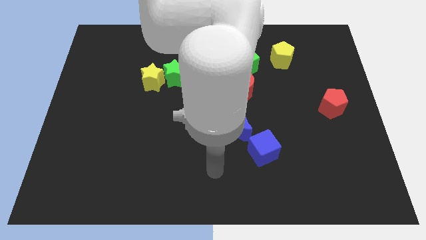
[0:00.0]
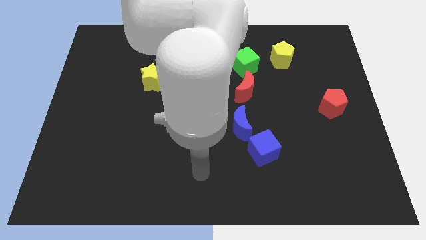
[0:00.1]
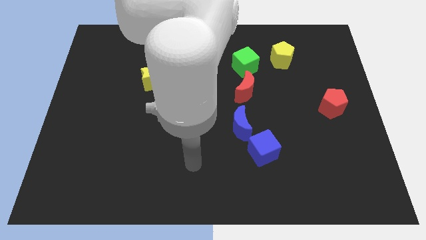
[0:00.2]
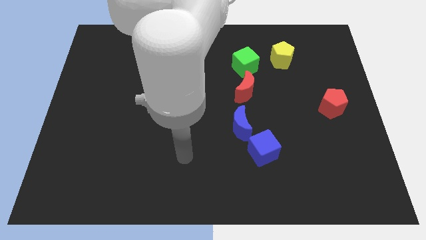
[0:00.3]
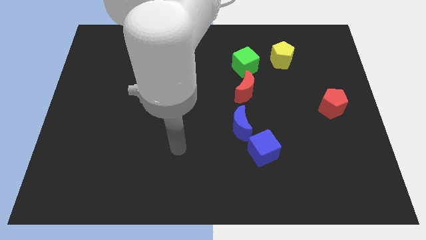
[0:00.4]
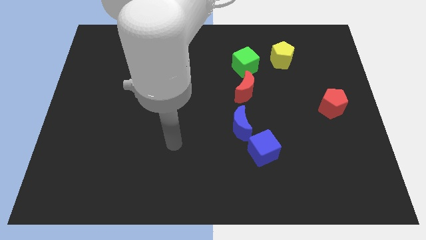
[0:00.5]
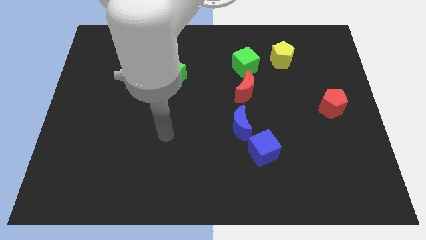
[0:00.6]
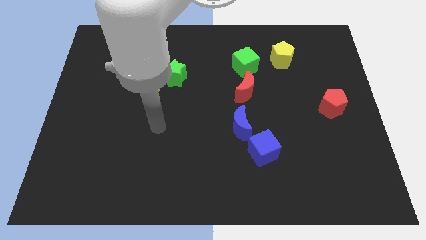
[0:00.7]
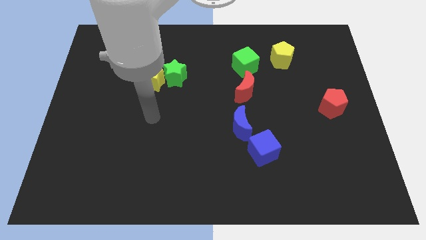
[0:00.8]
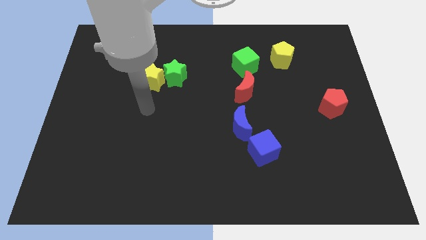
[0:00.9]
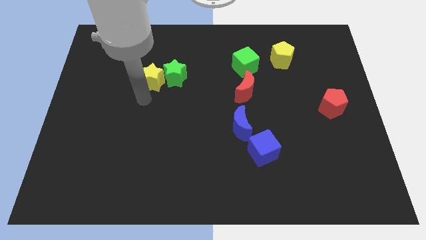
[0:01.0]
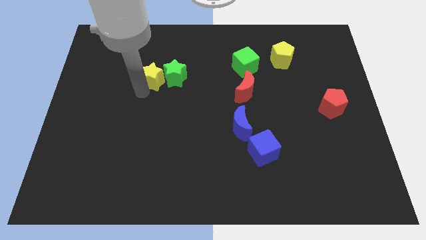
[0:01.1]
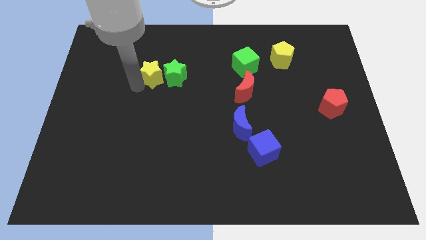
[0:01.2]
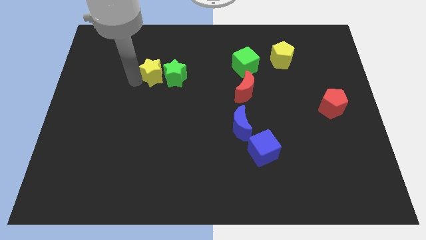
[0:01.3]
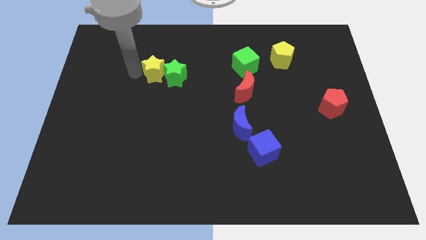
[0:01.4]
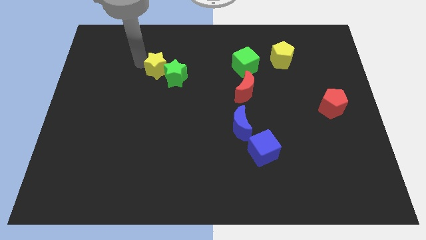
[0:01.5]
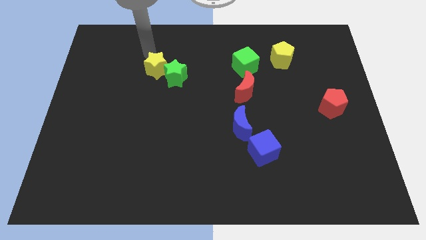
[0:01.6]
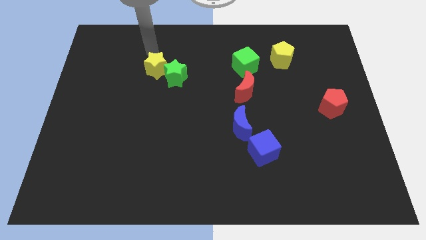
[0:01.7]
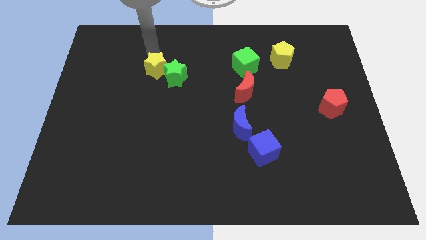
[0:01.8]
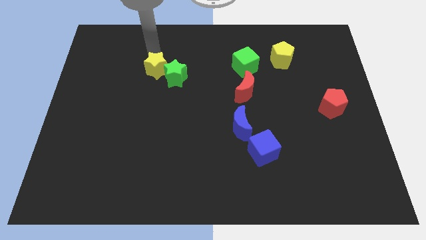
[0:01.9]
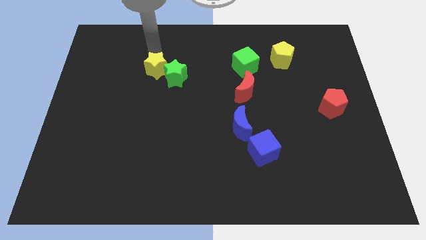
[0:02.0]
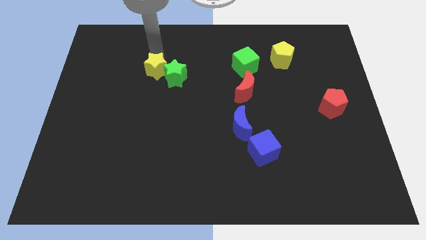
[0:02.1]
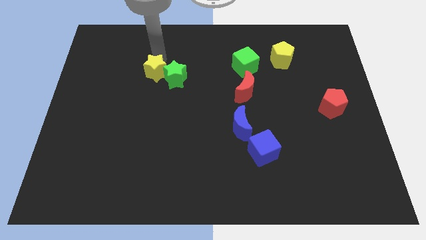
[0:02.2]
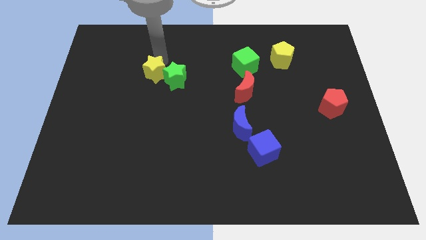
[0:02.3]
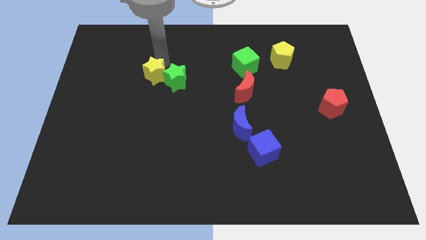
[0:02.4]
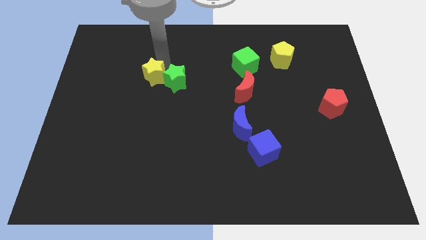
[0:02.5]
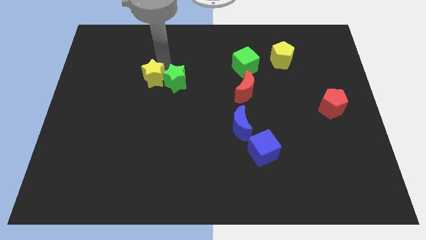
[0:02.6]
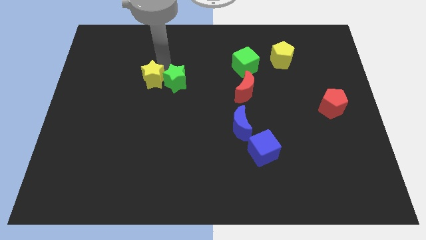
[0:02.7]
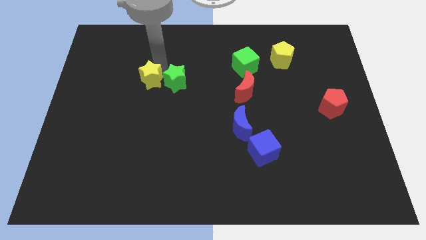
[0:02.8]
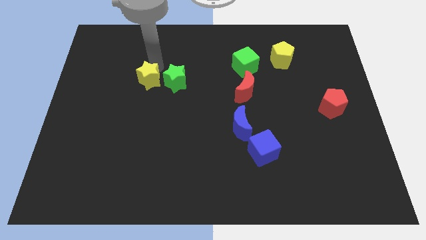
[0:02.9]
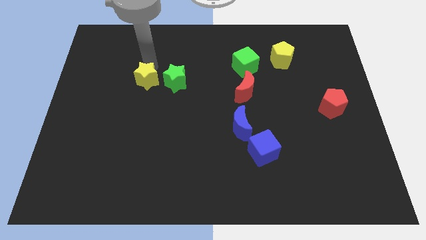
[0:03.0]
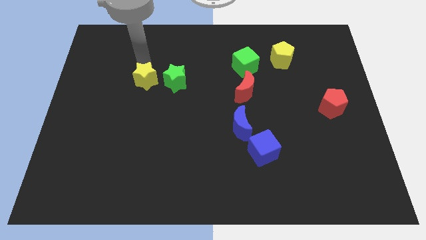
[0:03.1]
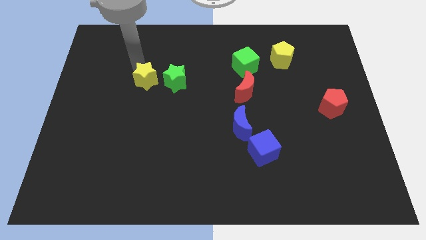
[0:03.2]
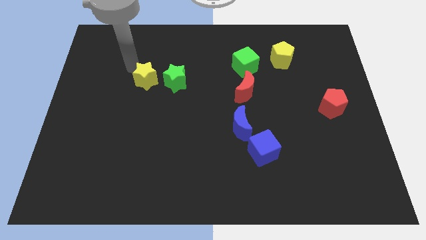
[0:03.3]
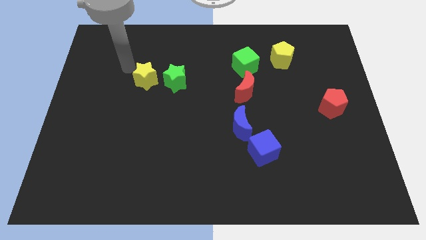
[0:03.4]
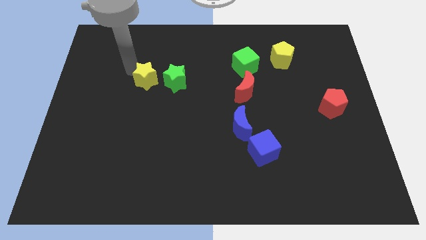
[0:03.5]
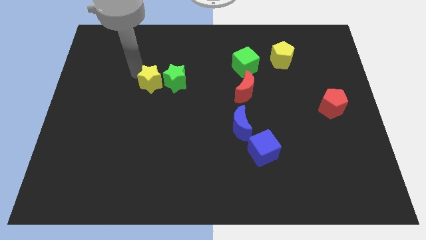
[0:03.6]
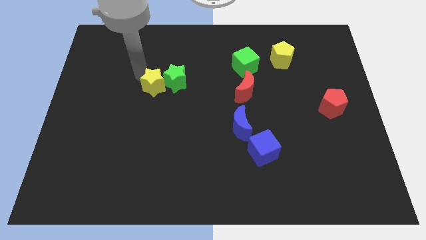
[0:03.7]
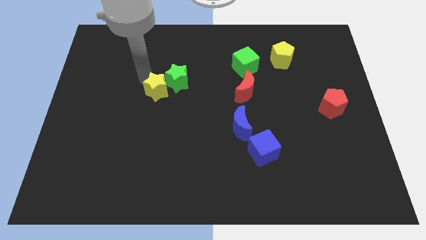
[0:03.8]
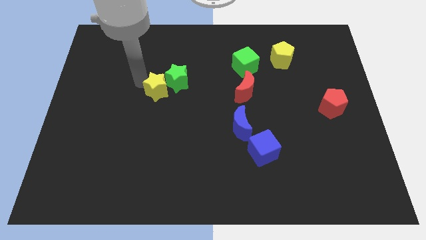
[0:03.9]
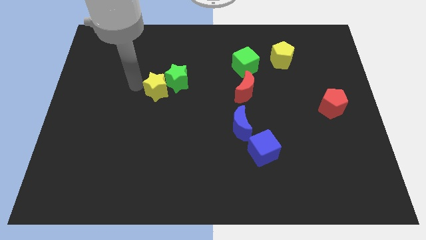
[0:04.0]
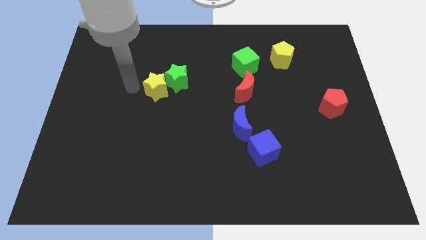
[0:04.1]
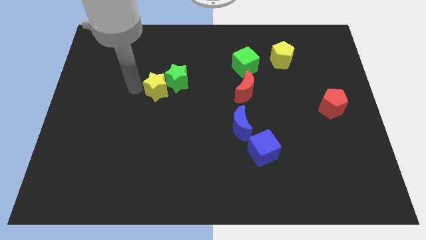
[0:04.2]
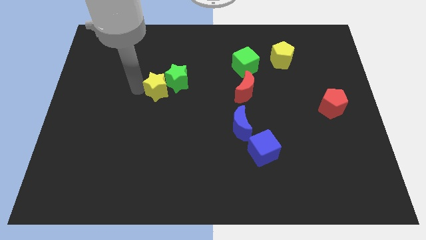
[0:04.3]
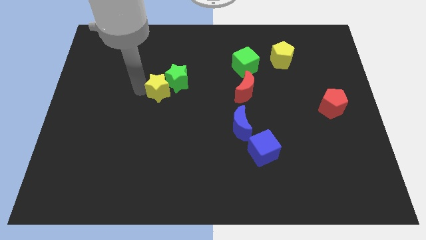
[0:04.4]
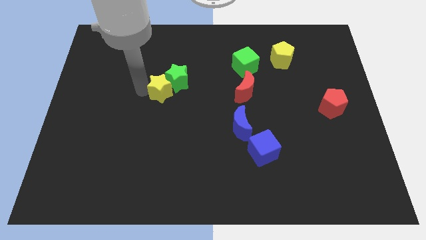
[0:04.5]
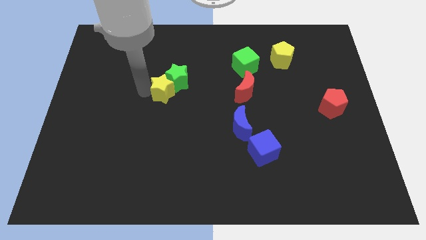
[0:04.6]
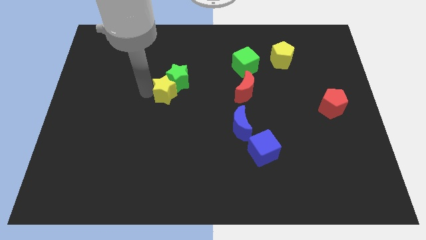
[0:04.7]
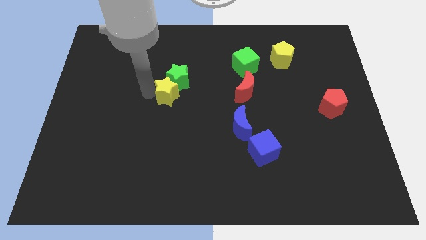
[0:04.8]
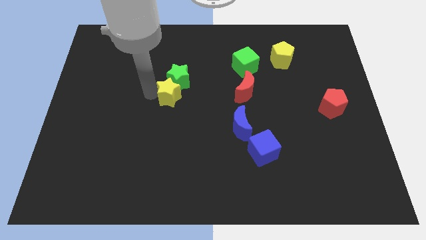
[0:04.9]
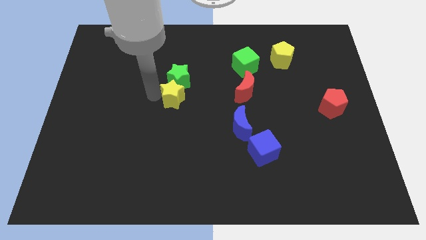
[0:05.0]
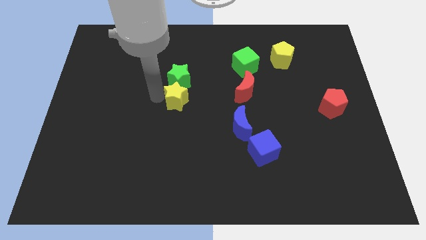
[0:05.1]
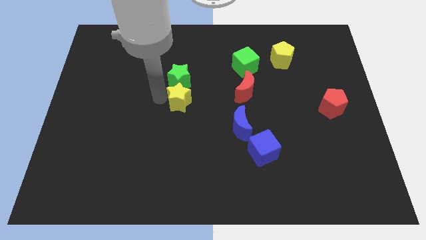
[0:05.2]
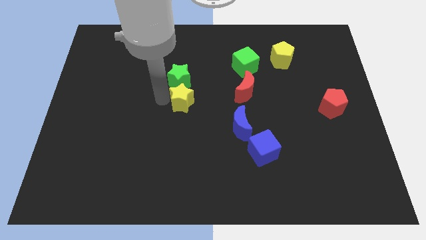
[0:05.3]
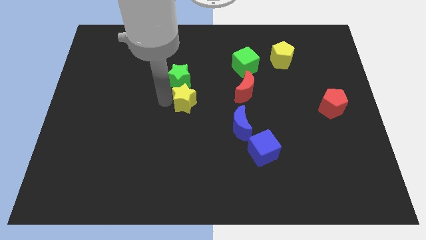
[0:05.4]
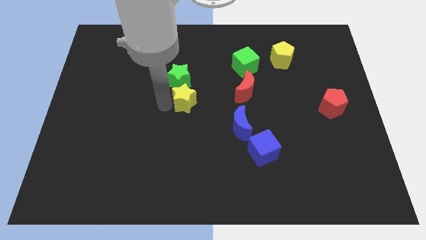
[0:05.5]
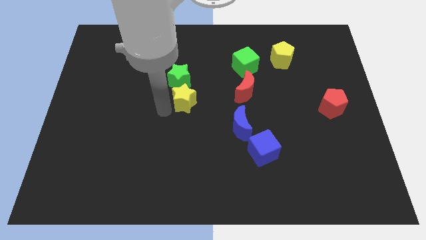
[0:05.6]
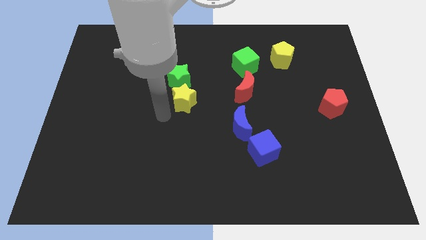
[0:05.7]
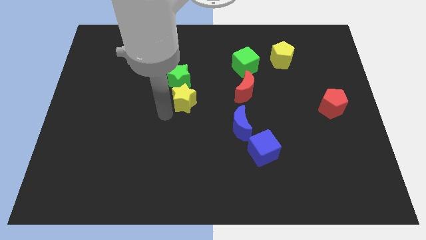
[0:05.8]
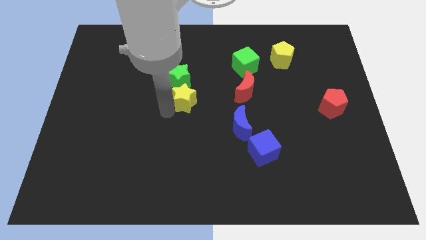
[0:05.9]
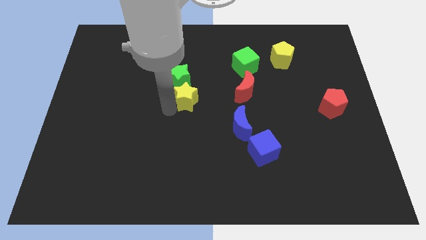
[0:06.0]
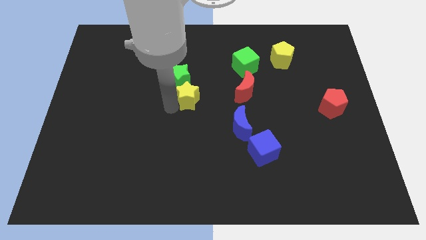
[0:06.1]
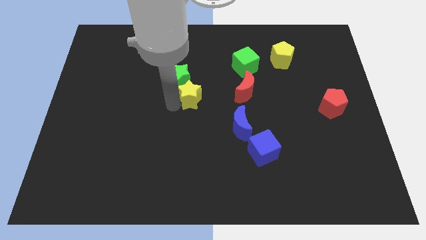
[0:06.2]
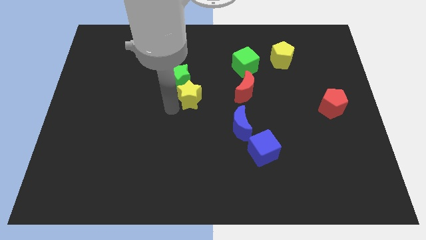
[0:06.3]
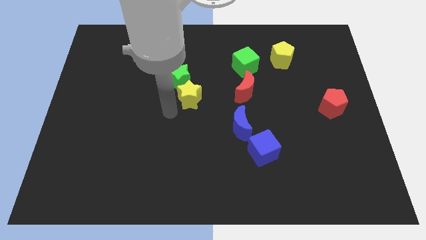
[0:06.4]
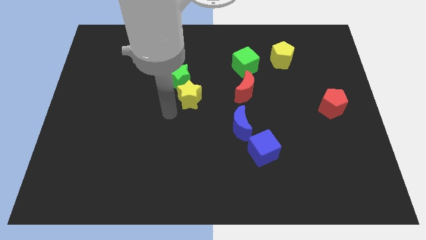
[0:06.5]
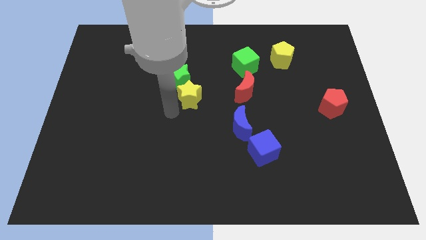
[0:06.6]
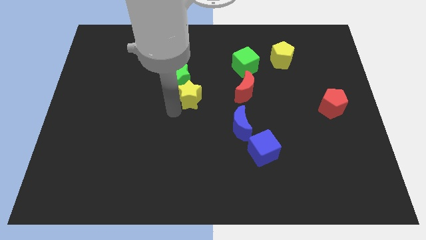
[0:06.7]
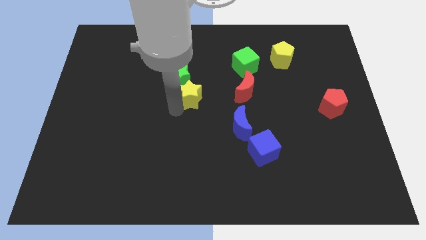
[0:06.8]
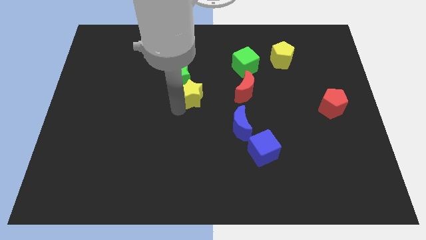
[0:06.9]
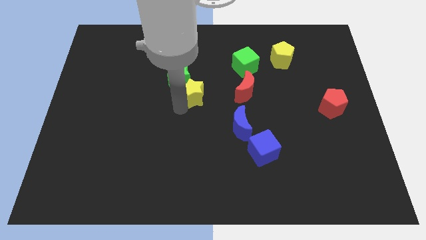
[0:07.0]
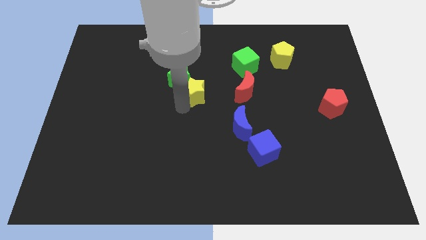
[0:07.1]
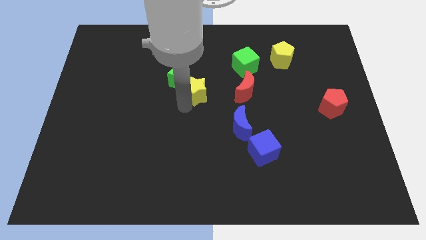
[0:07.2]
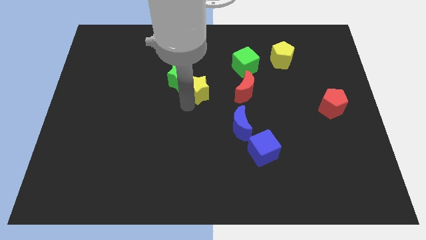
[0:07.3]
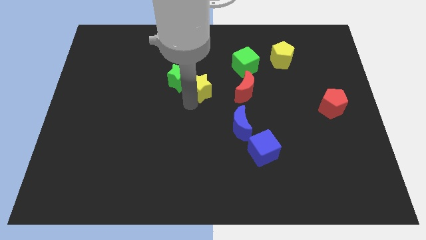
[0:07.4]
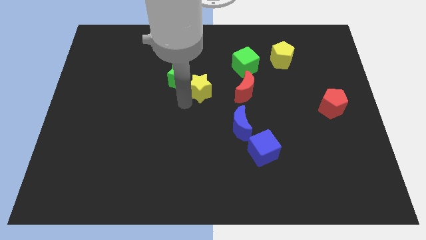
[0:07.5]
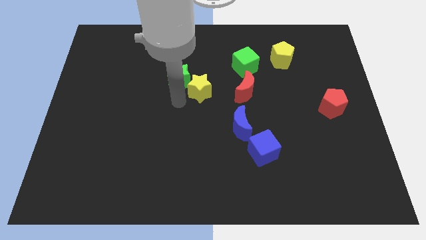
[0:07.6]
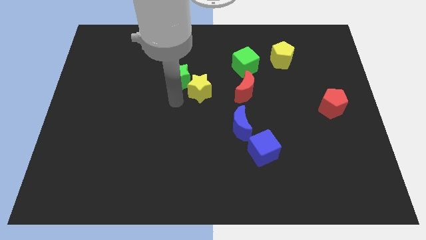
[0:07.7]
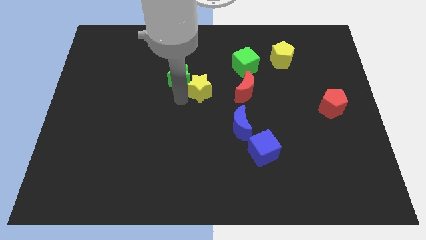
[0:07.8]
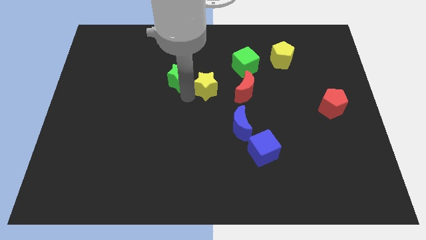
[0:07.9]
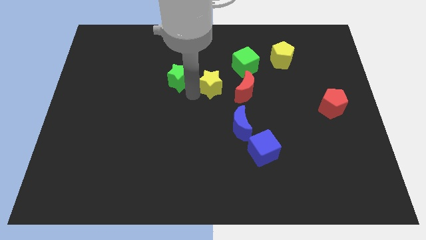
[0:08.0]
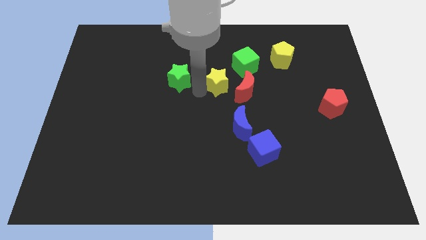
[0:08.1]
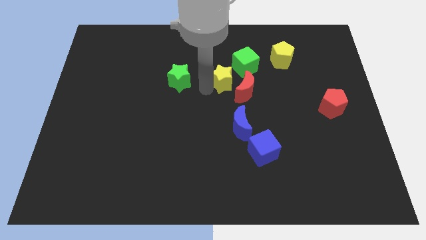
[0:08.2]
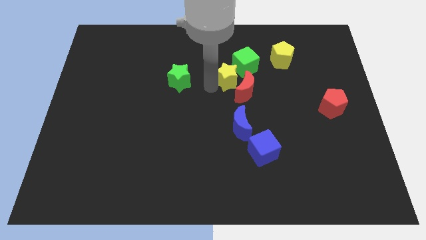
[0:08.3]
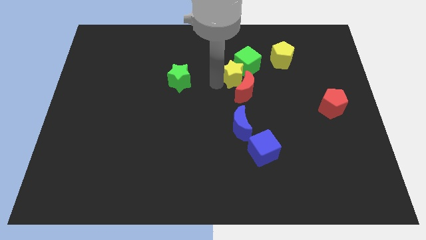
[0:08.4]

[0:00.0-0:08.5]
push the yellow star right

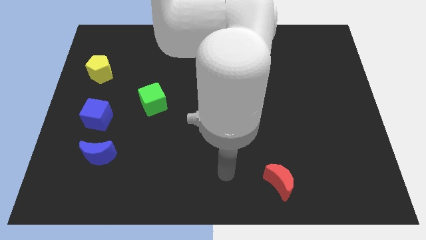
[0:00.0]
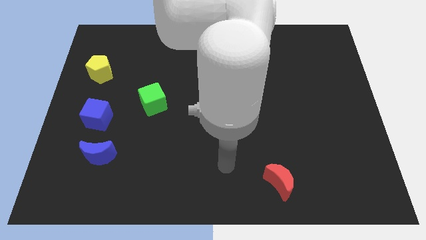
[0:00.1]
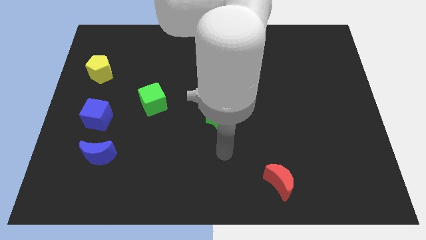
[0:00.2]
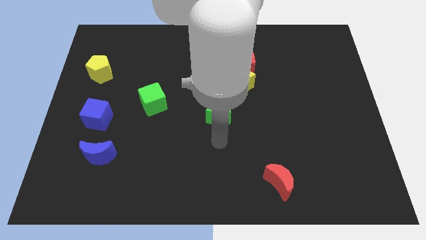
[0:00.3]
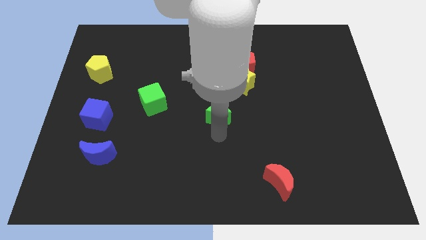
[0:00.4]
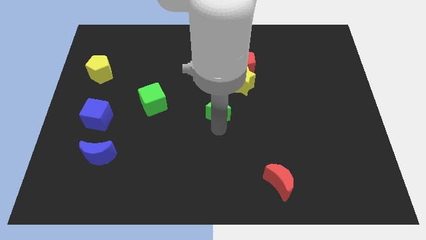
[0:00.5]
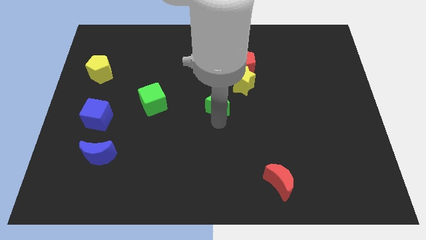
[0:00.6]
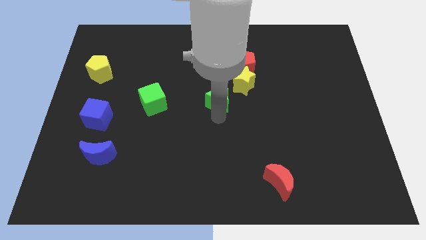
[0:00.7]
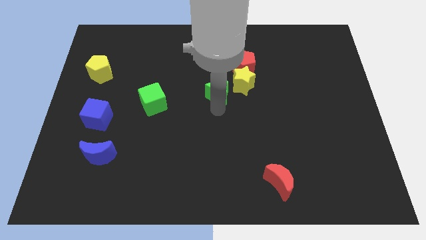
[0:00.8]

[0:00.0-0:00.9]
move the green star slightly upwards
